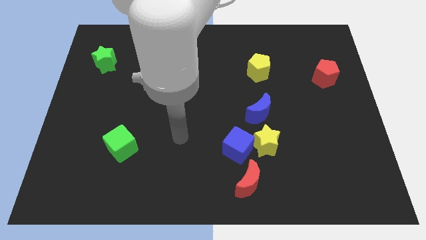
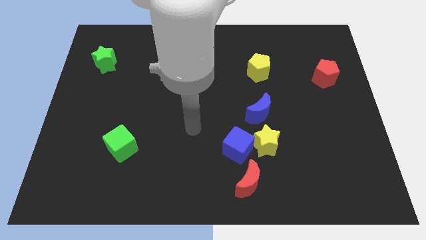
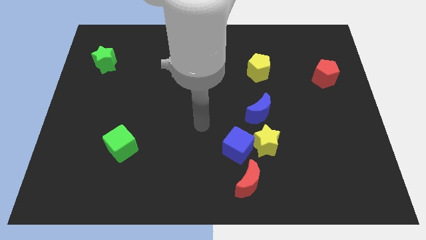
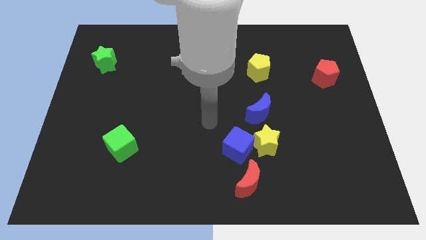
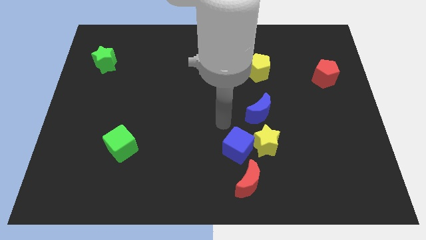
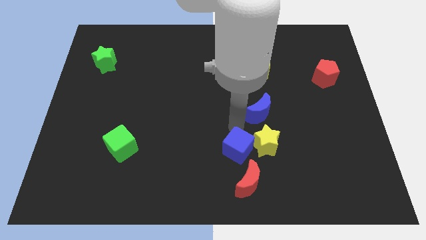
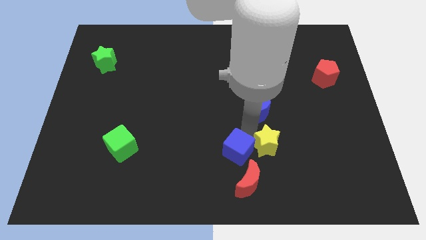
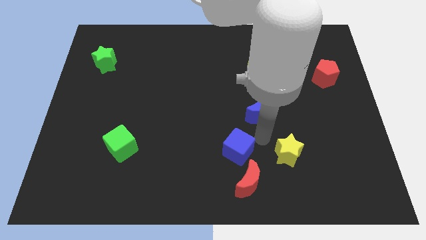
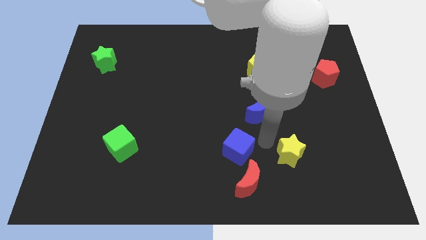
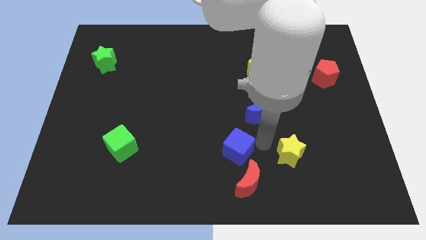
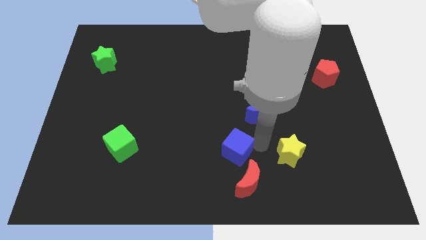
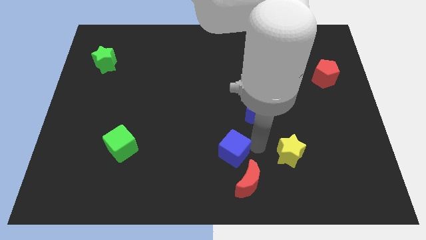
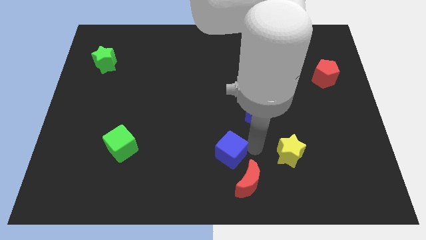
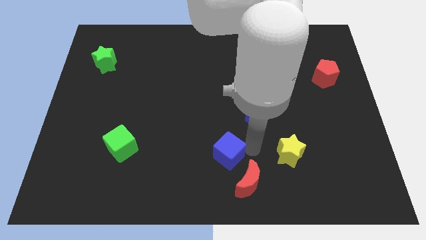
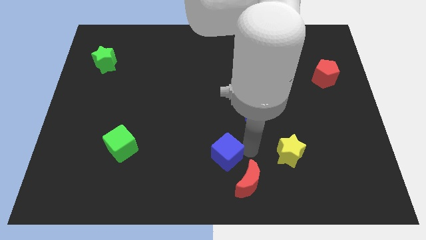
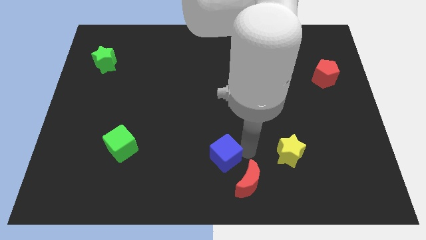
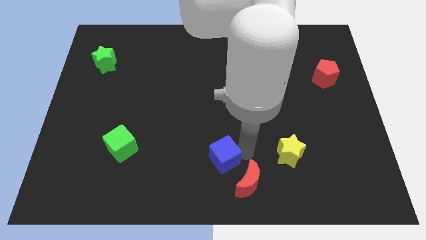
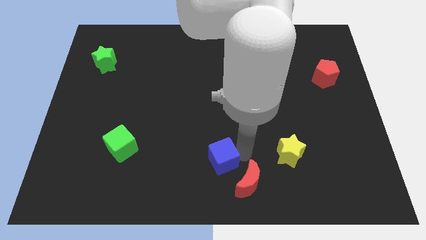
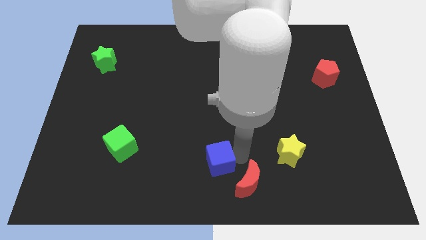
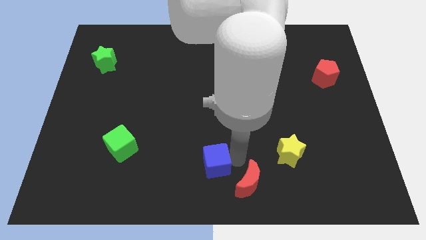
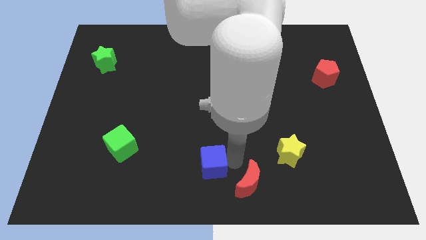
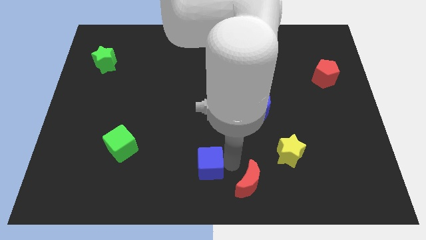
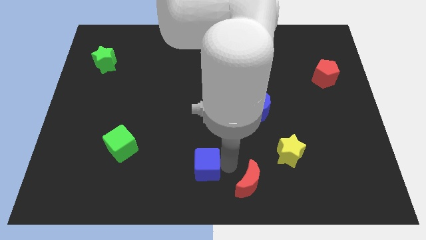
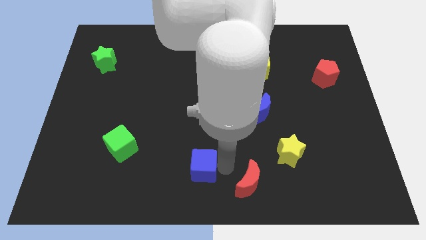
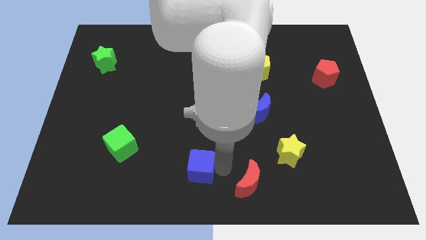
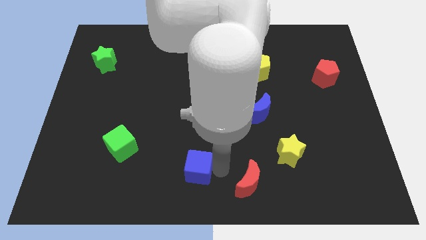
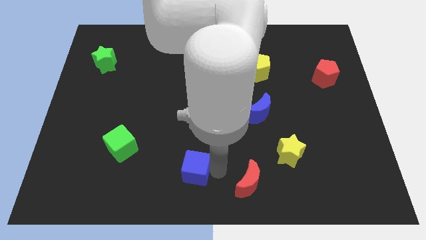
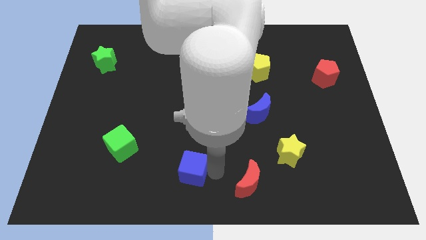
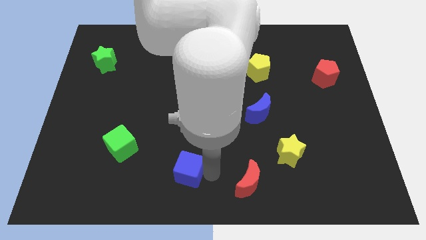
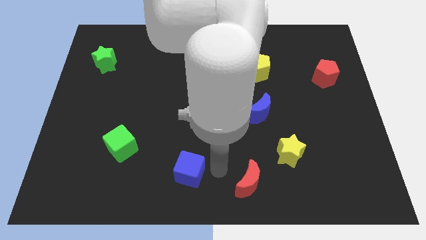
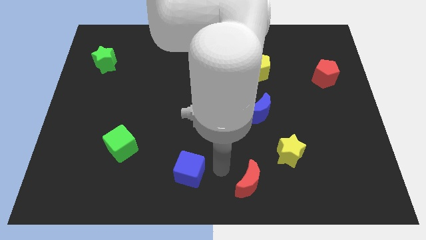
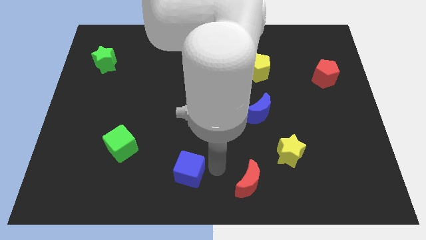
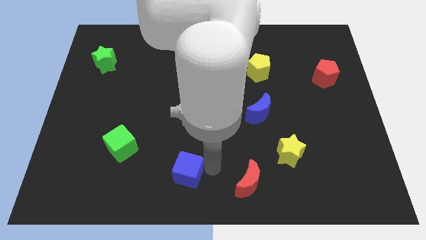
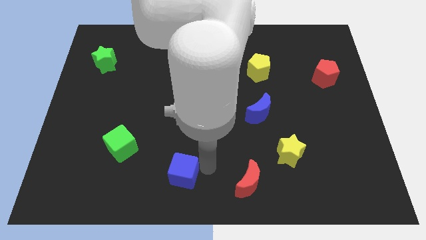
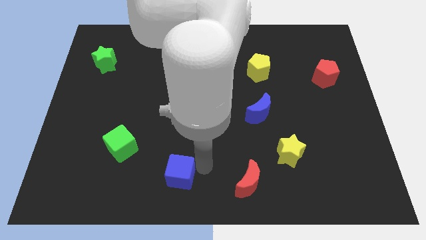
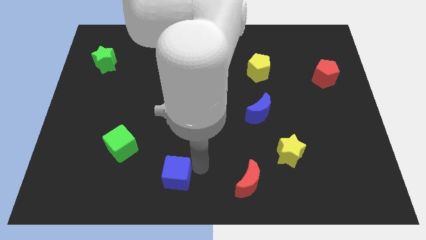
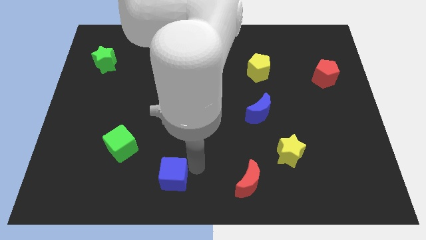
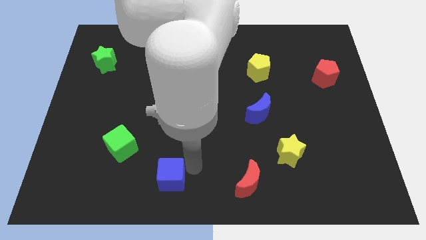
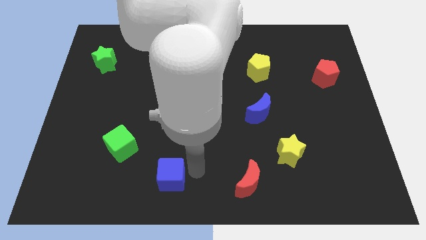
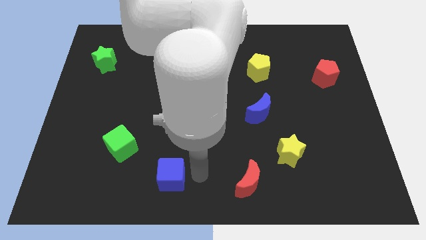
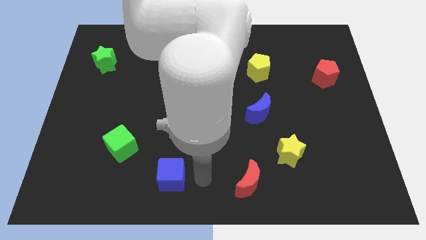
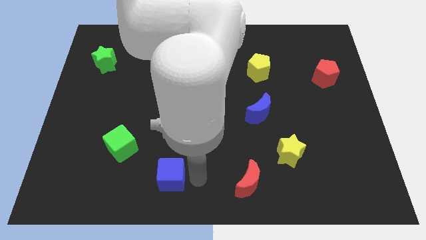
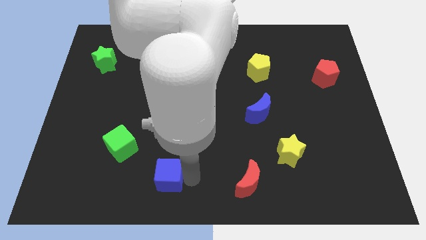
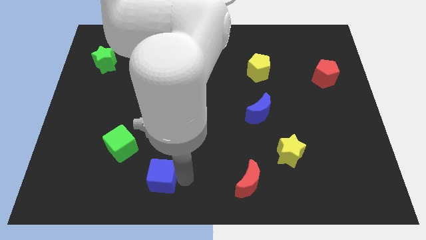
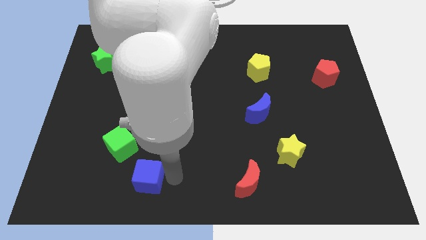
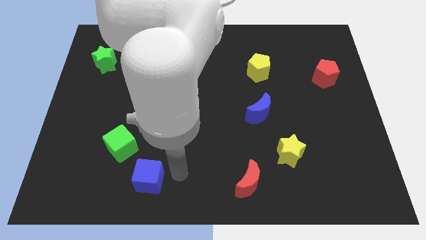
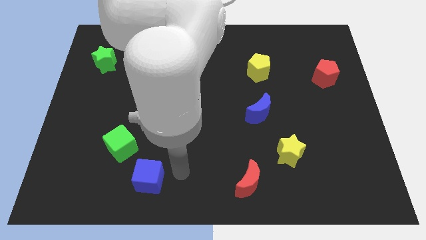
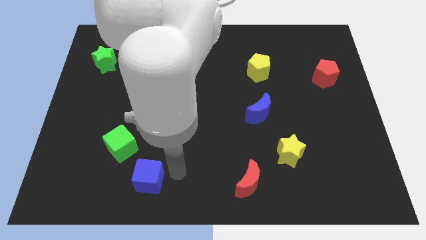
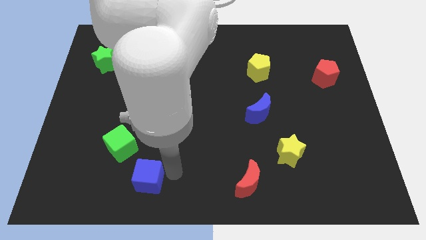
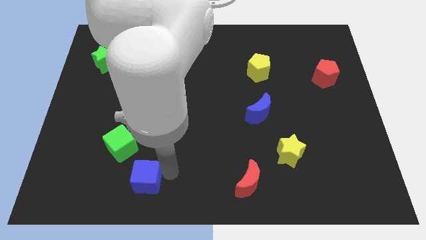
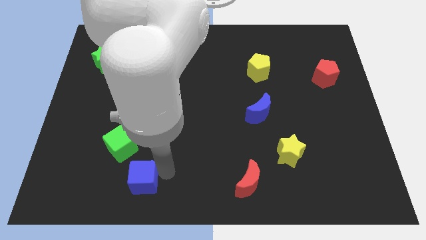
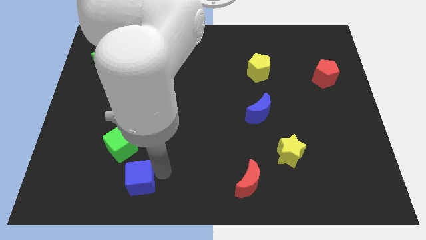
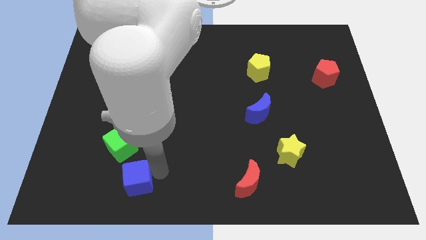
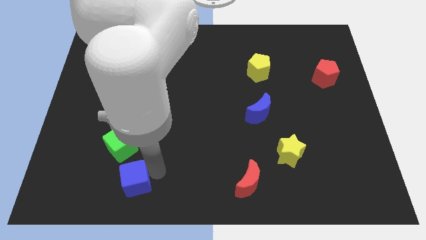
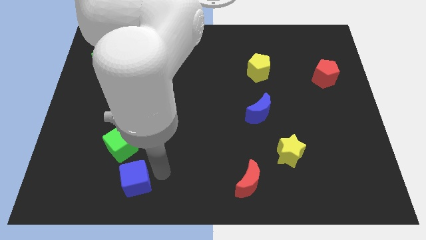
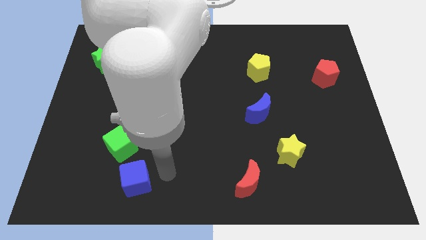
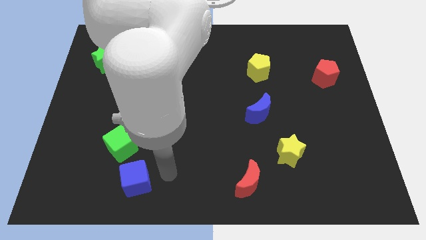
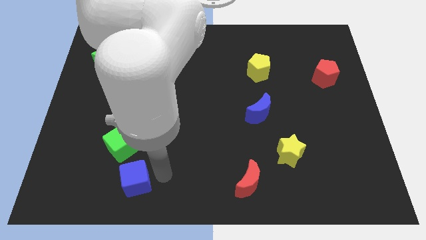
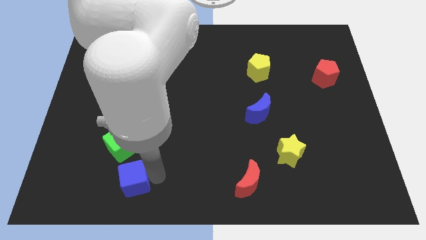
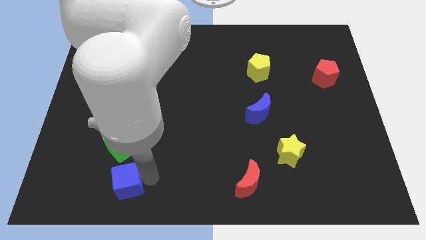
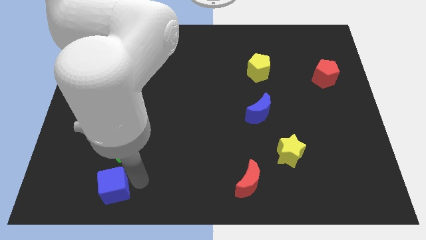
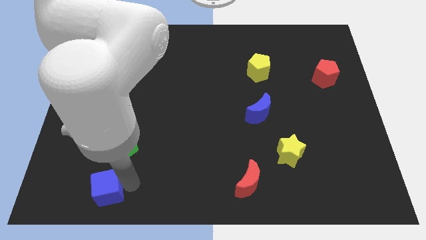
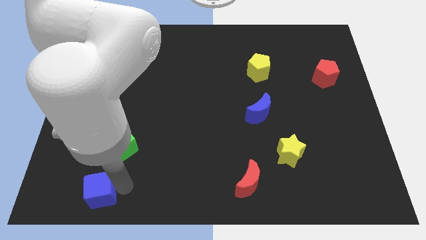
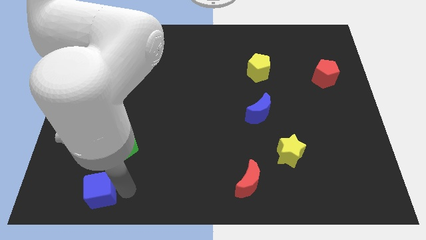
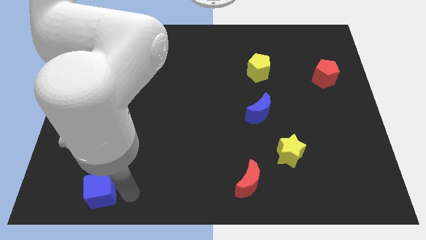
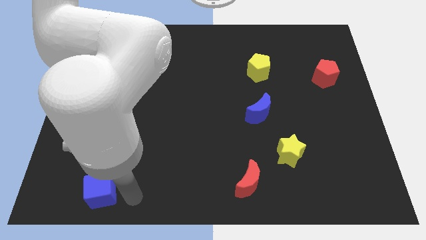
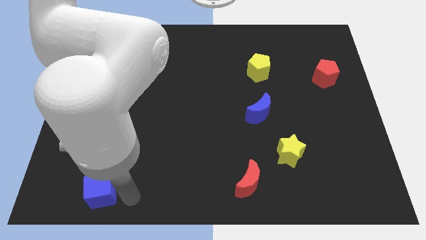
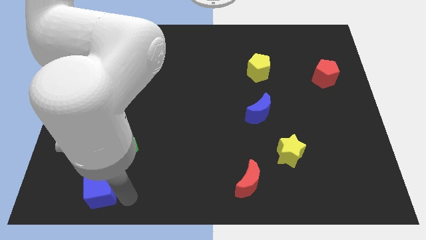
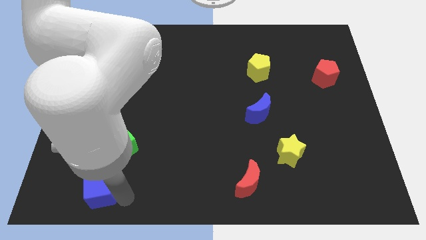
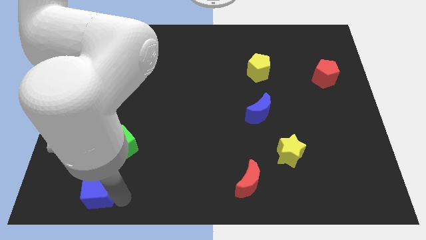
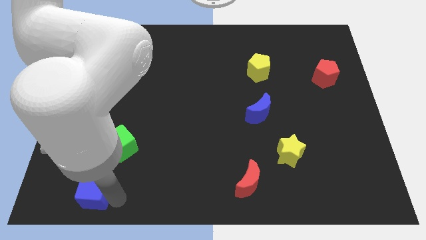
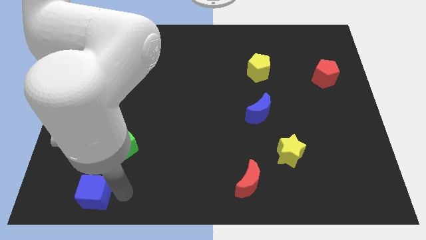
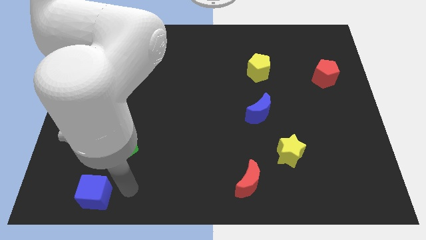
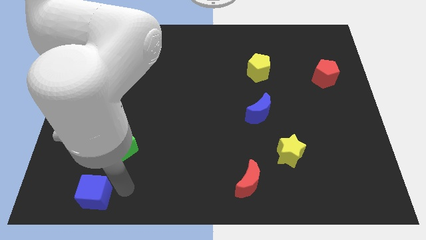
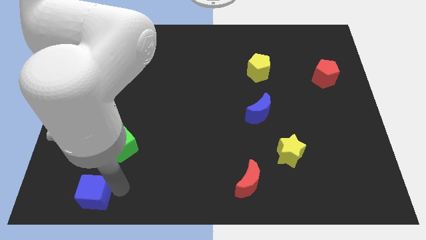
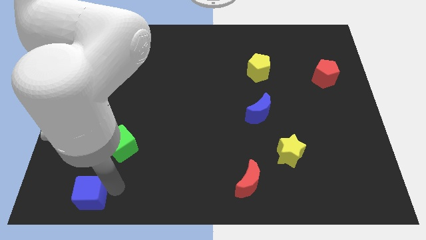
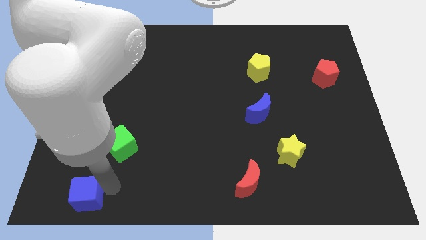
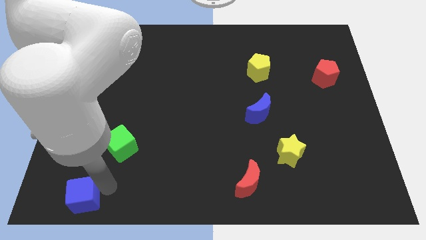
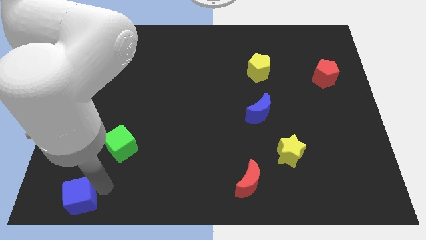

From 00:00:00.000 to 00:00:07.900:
move the blue cube to the bottom left corner
